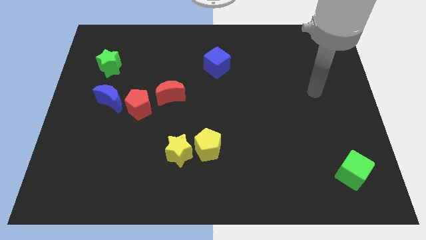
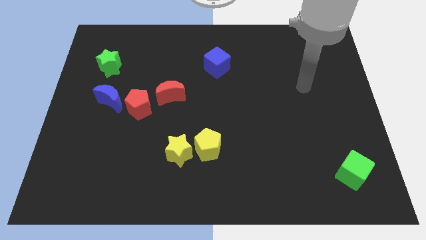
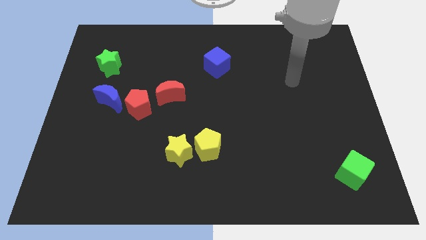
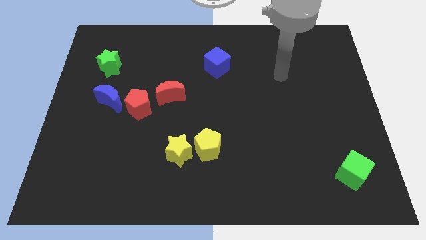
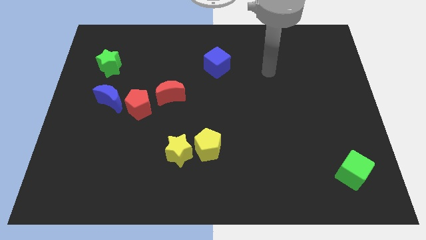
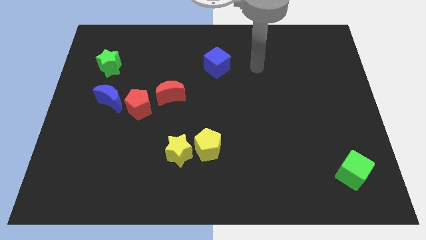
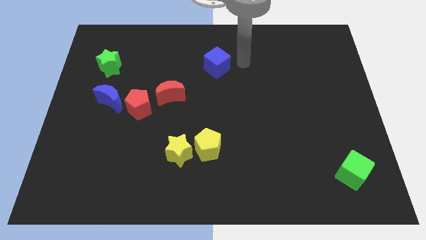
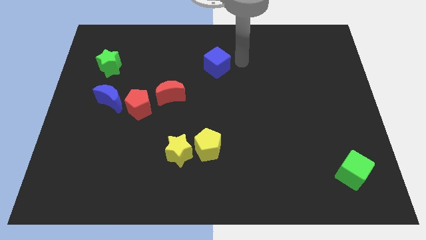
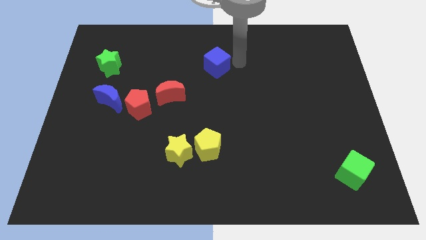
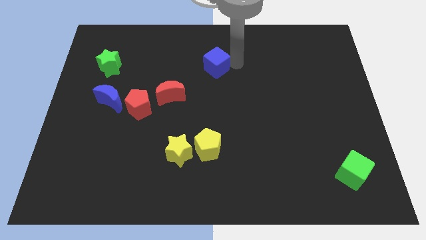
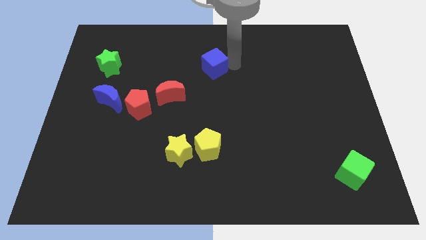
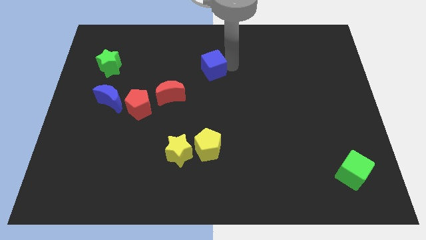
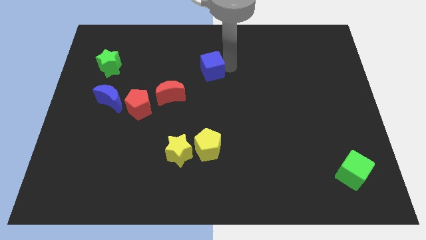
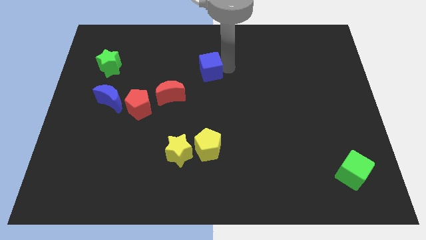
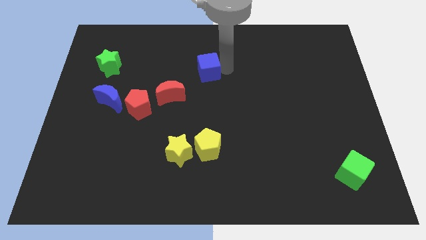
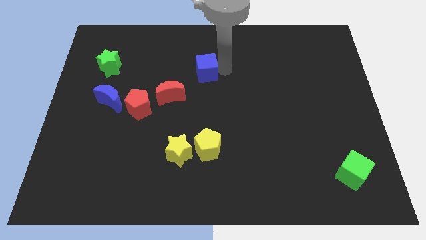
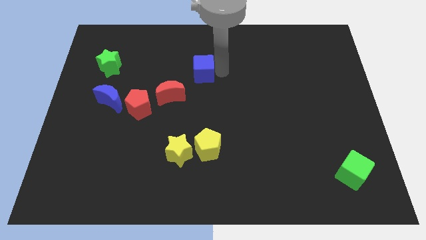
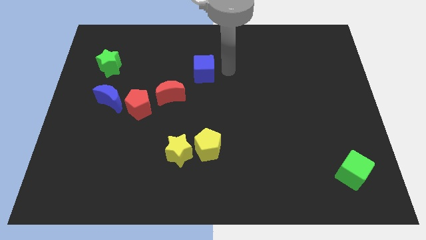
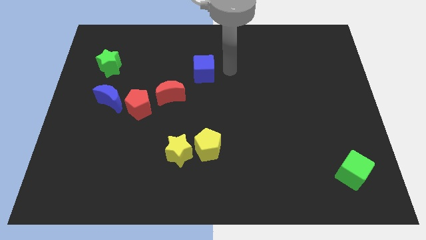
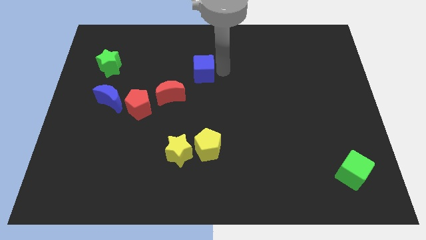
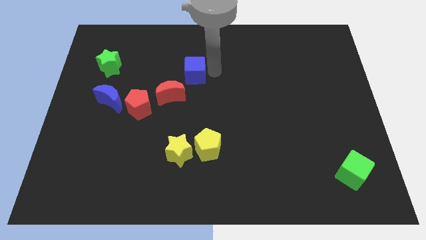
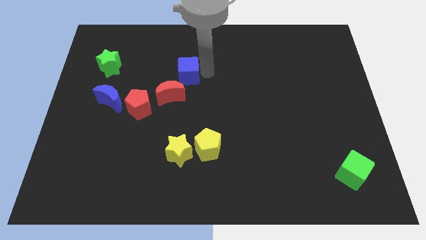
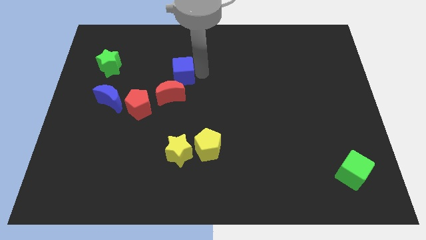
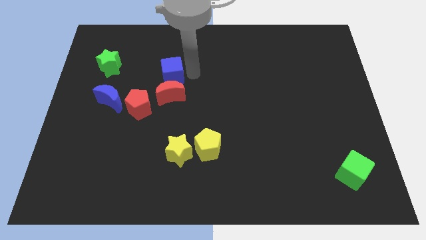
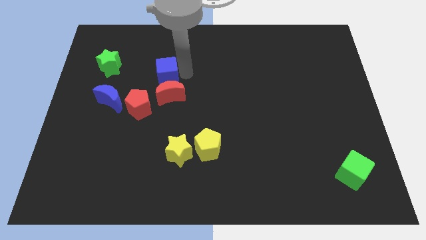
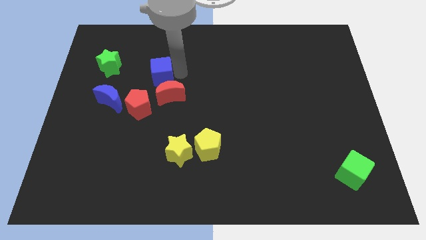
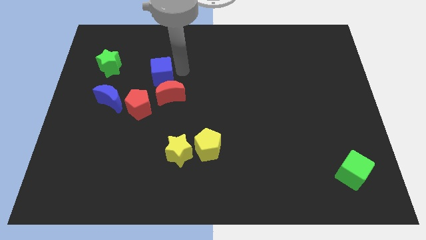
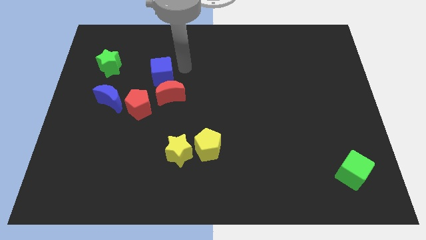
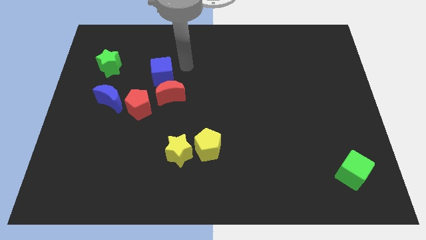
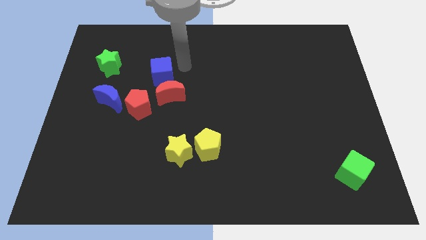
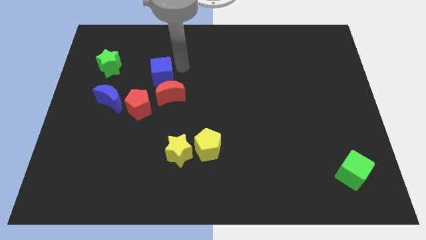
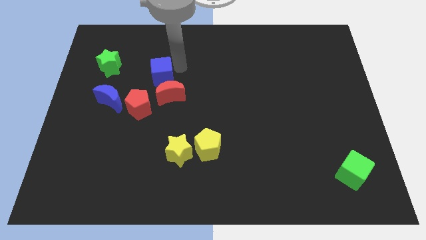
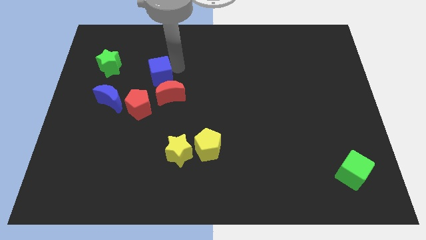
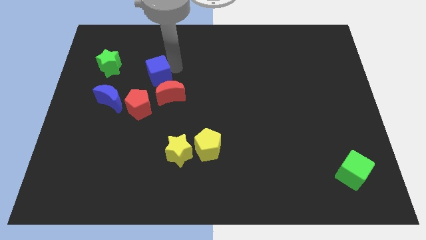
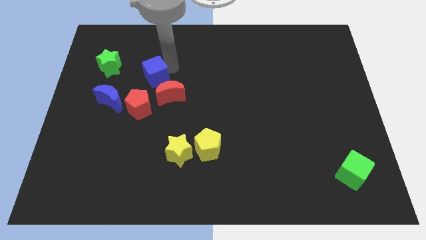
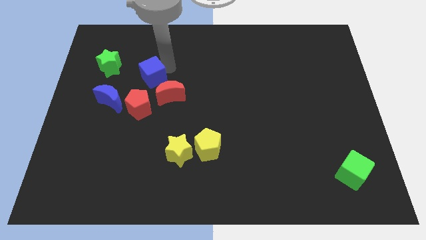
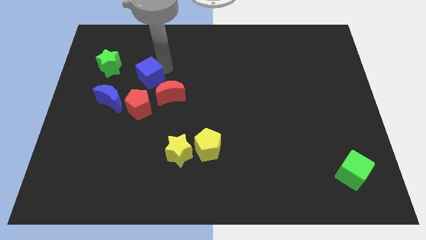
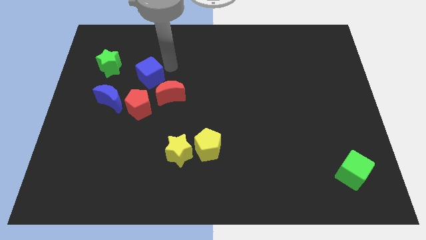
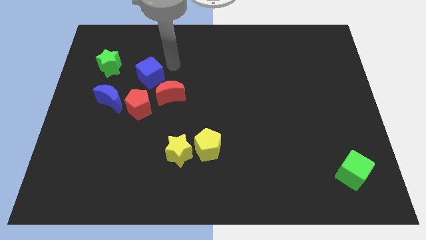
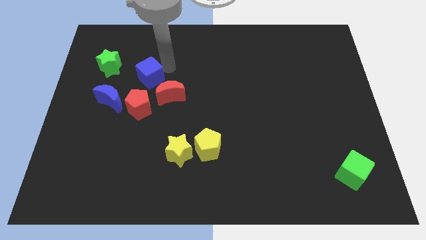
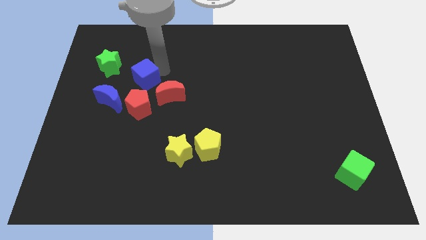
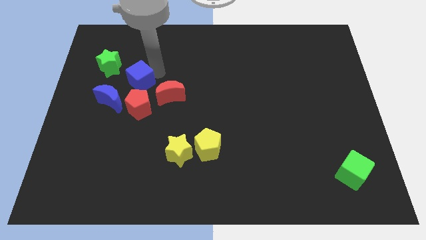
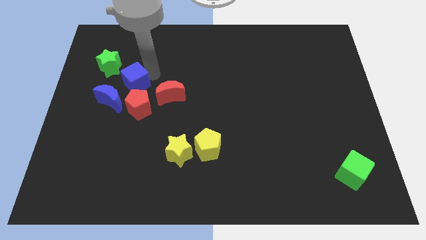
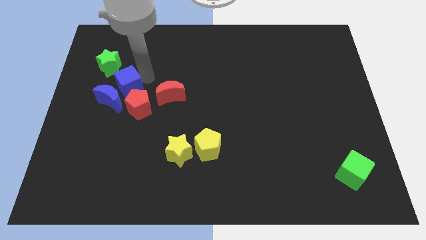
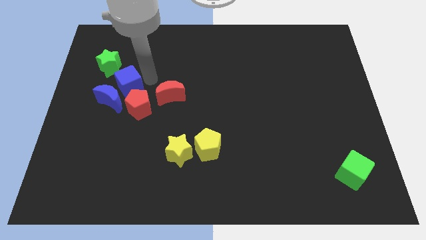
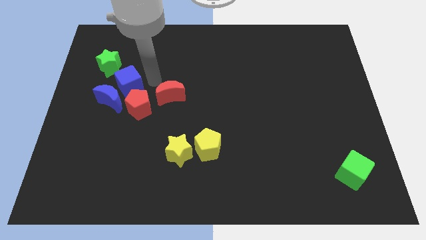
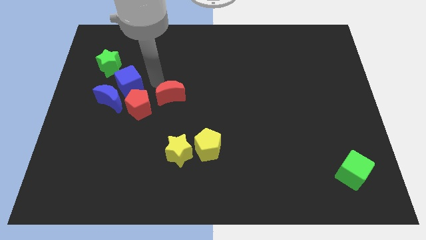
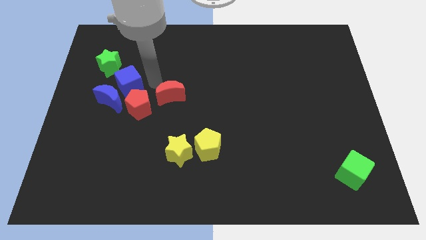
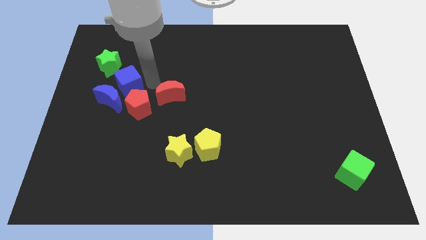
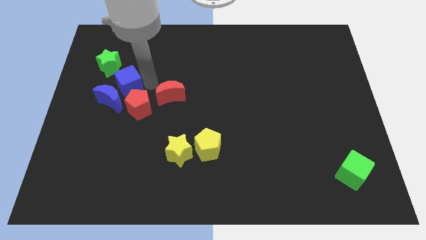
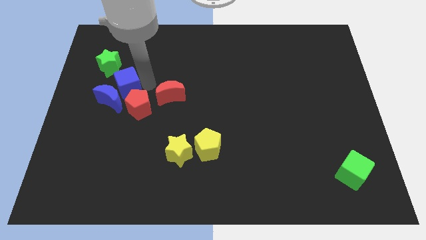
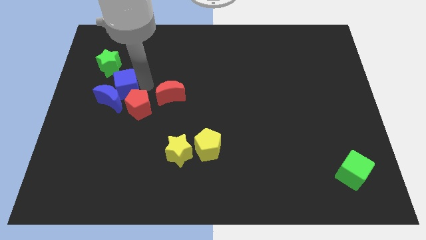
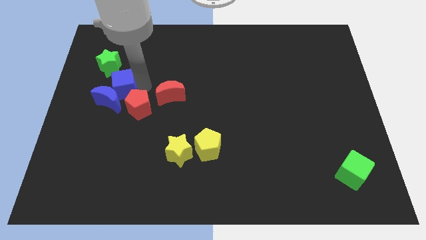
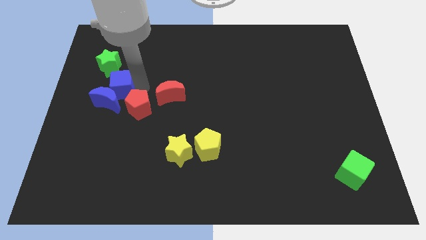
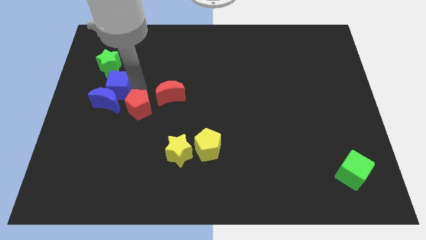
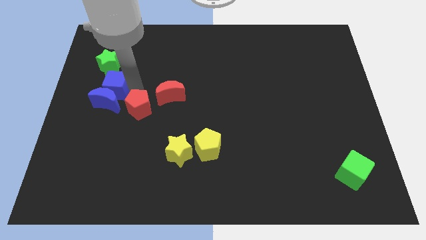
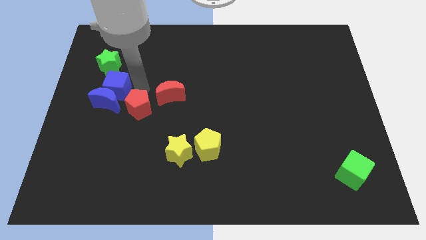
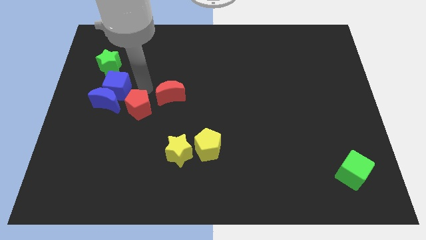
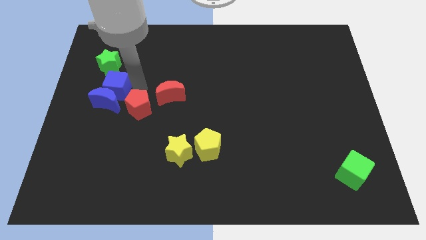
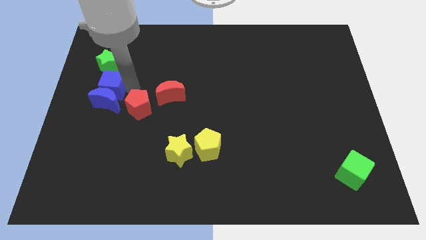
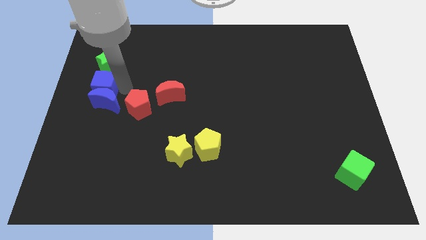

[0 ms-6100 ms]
move the blue cube to the left side
